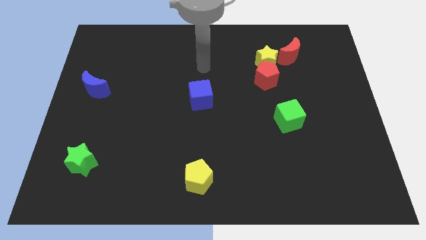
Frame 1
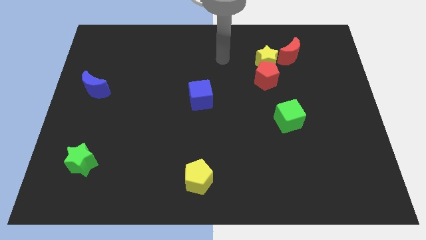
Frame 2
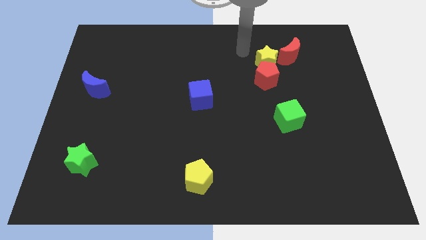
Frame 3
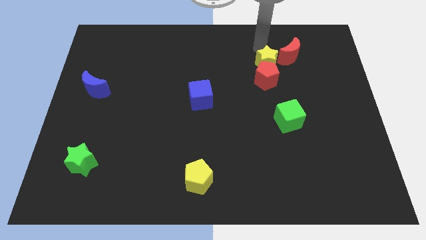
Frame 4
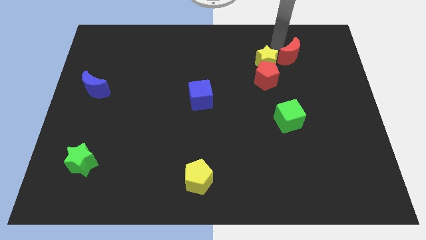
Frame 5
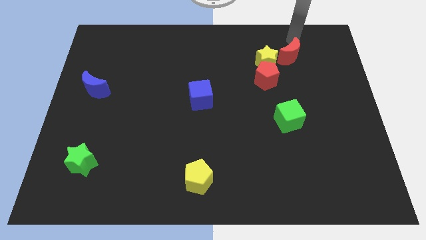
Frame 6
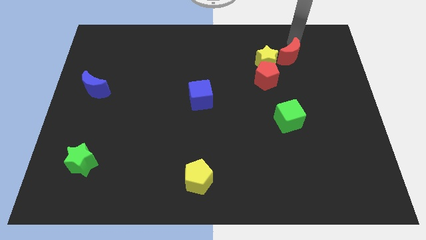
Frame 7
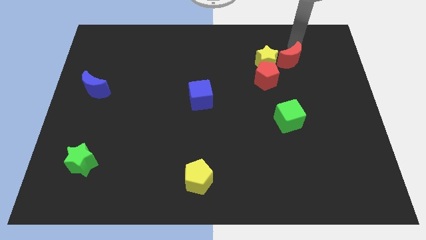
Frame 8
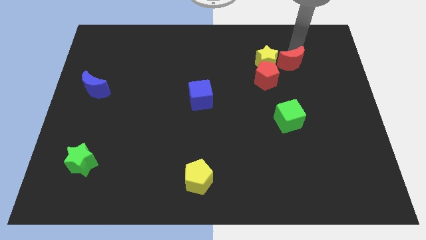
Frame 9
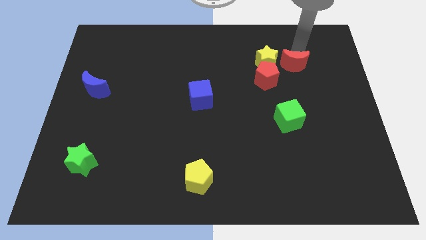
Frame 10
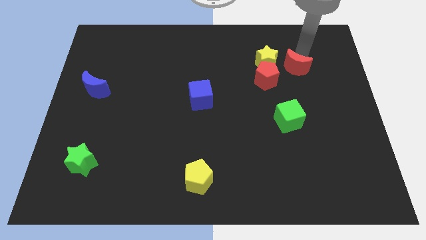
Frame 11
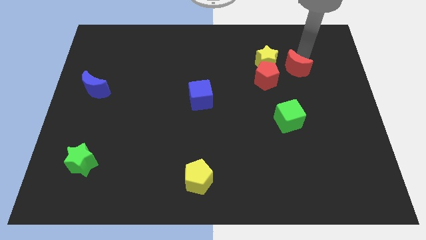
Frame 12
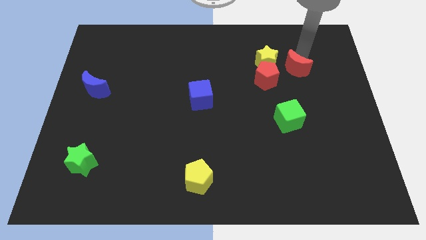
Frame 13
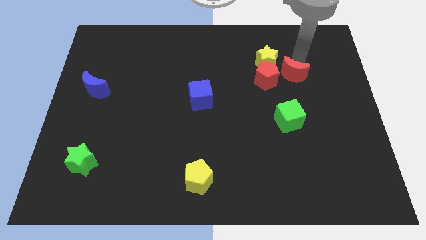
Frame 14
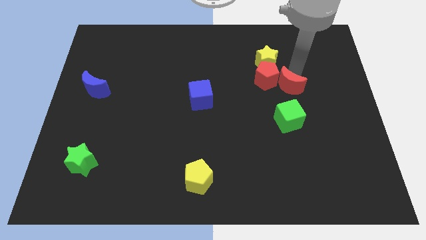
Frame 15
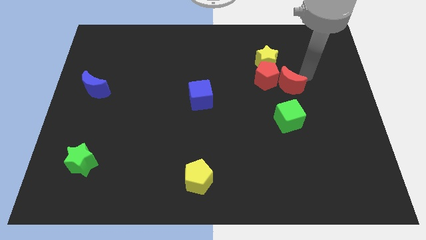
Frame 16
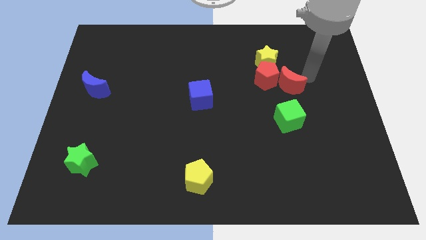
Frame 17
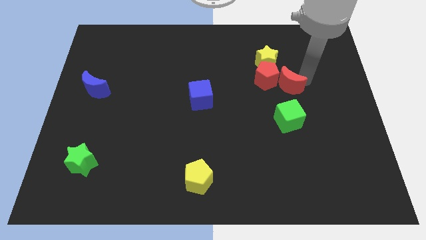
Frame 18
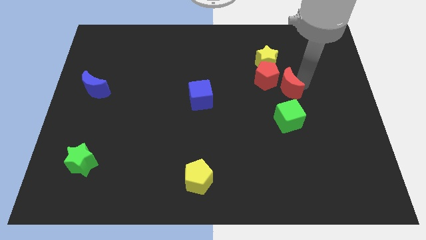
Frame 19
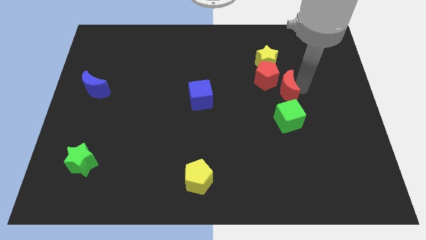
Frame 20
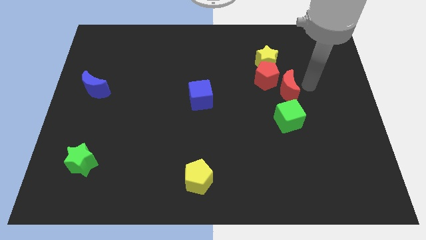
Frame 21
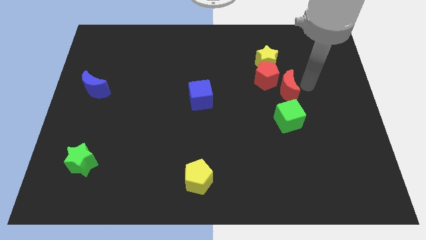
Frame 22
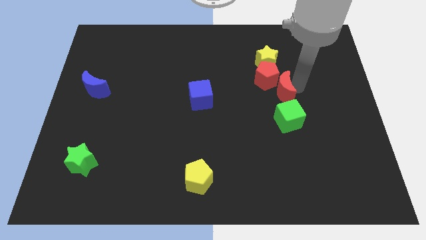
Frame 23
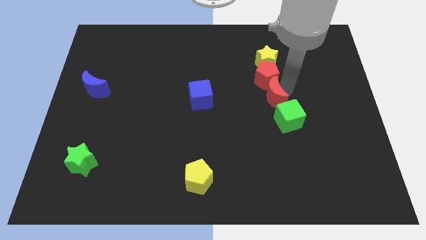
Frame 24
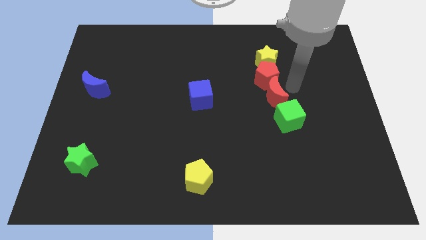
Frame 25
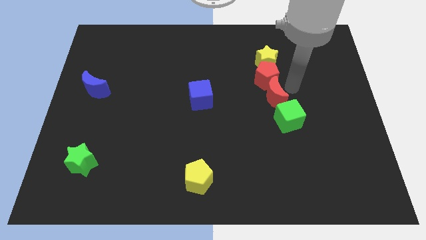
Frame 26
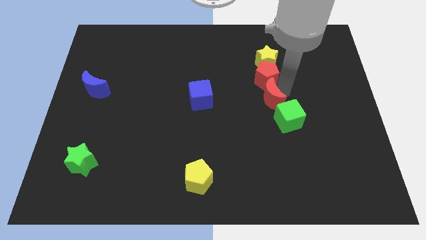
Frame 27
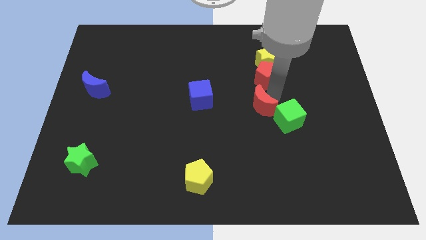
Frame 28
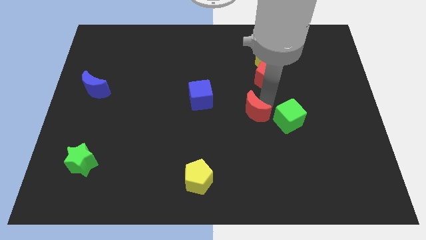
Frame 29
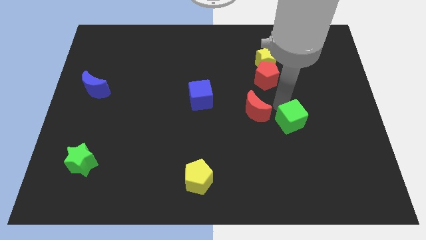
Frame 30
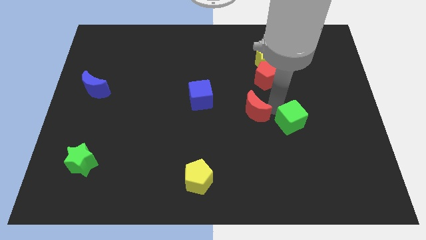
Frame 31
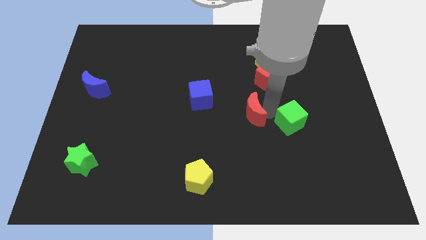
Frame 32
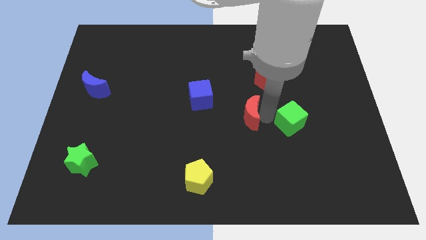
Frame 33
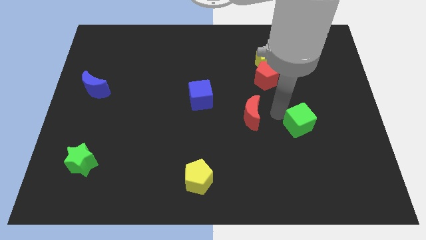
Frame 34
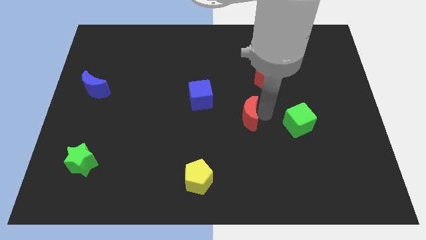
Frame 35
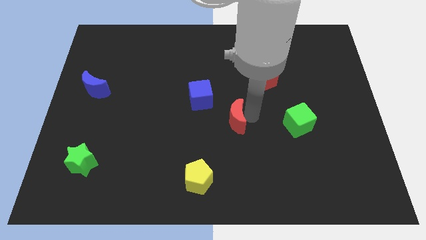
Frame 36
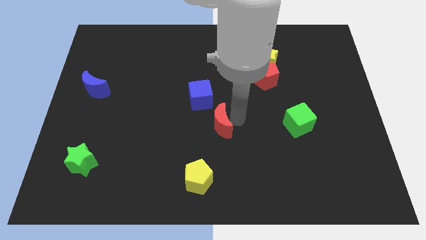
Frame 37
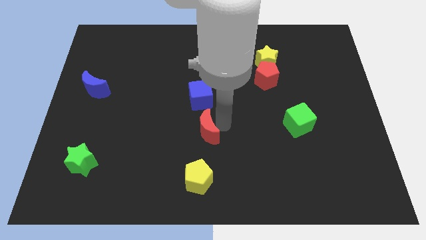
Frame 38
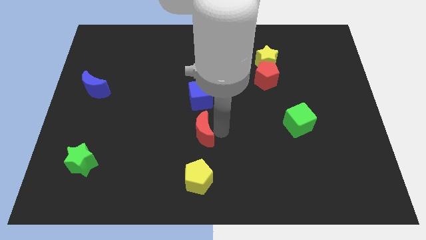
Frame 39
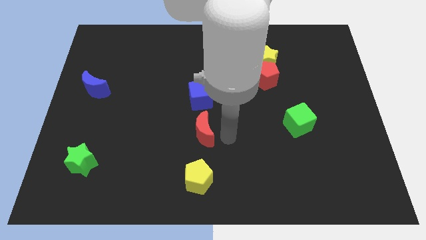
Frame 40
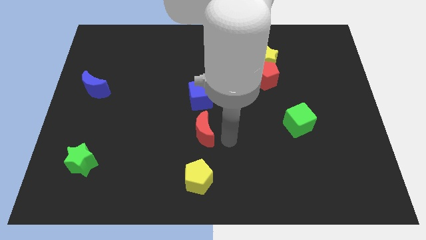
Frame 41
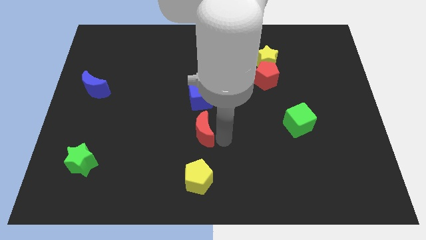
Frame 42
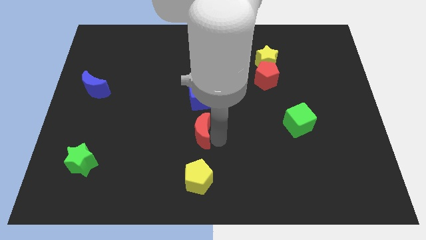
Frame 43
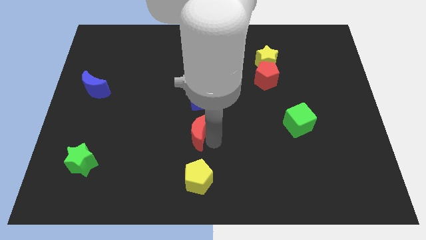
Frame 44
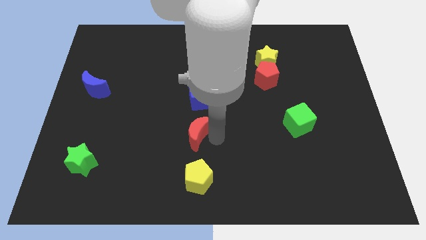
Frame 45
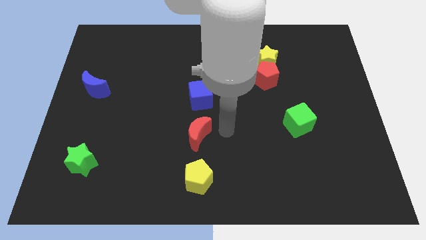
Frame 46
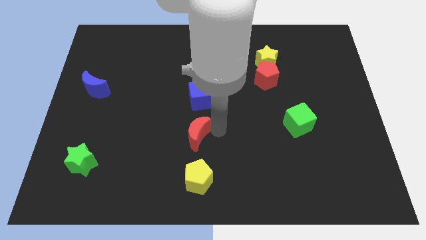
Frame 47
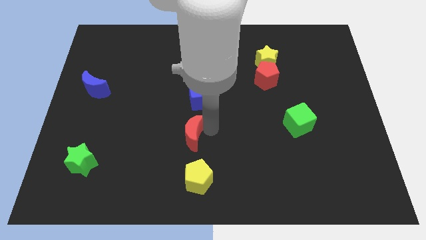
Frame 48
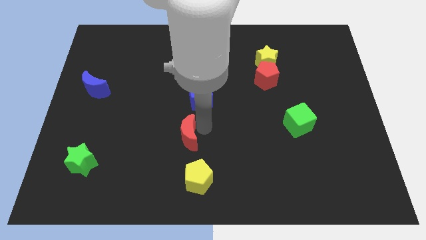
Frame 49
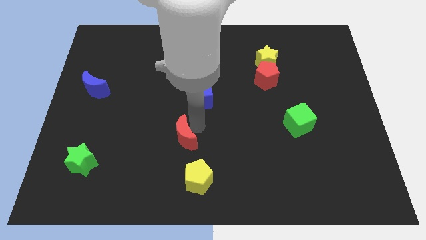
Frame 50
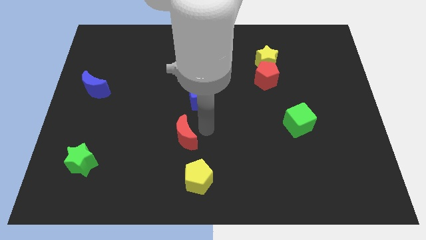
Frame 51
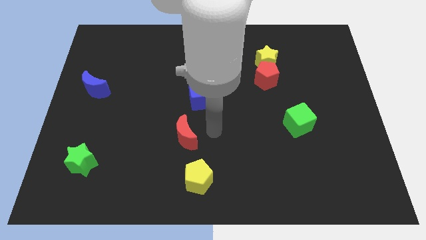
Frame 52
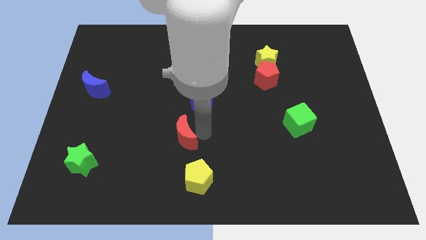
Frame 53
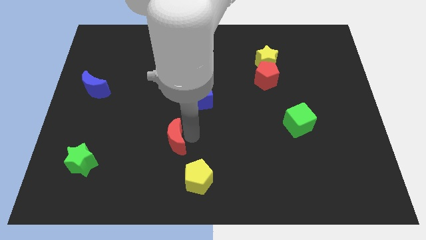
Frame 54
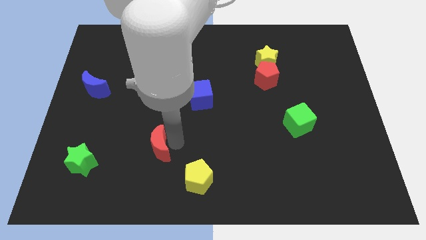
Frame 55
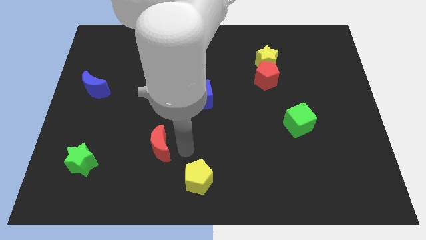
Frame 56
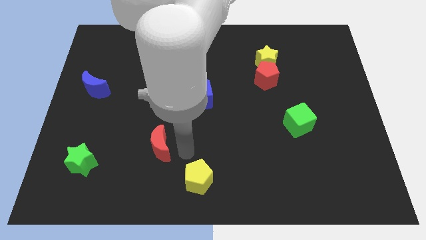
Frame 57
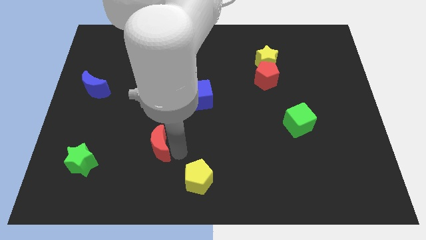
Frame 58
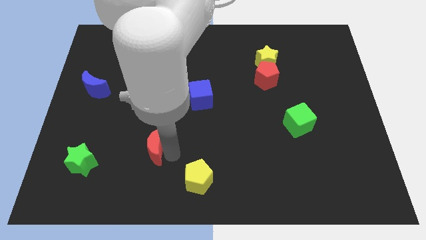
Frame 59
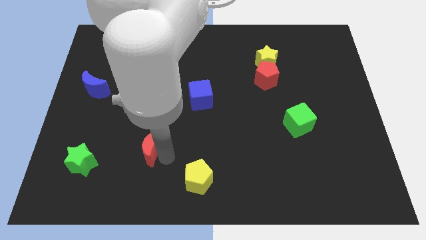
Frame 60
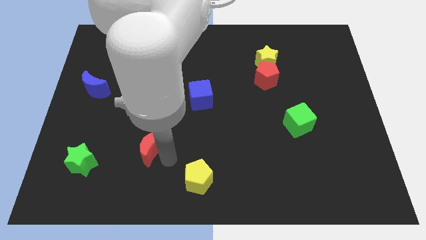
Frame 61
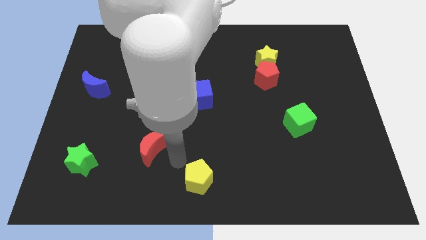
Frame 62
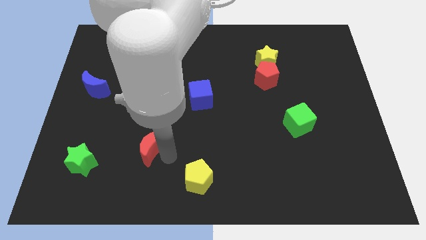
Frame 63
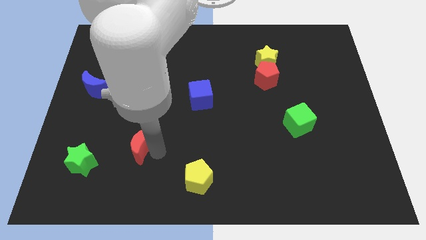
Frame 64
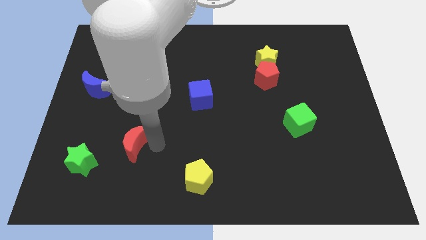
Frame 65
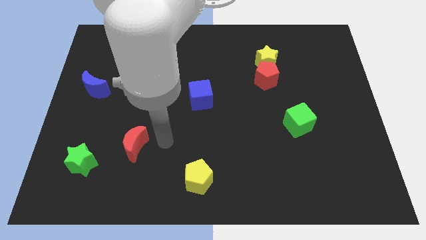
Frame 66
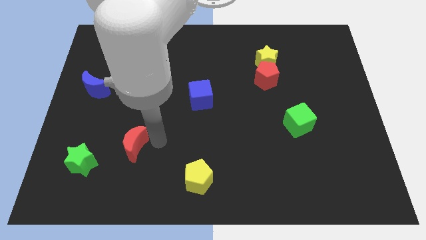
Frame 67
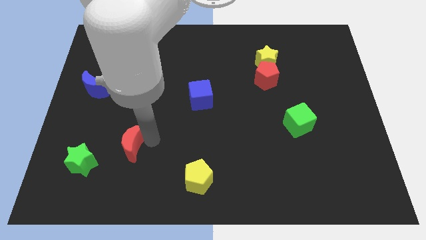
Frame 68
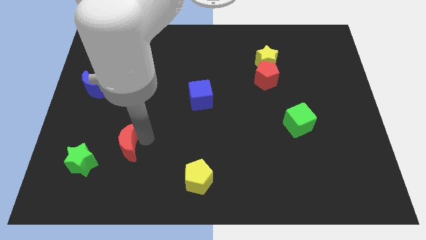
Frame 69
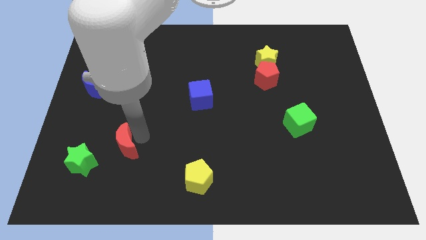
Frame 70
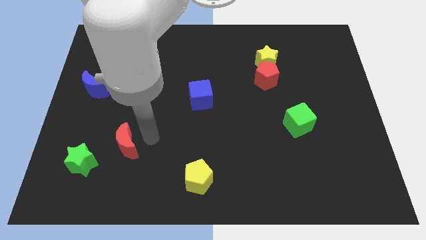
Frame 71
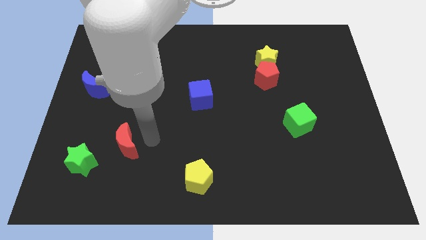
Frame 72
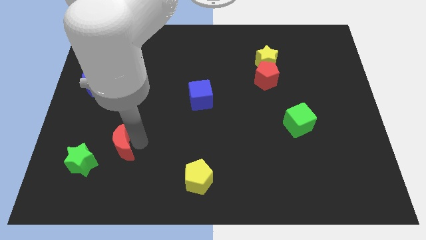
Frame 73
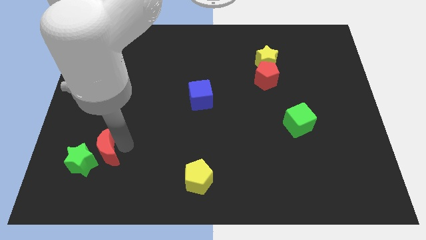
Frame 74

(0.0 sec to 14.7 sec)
slide the red moon to the green star

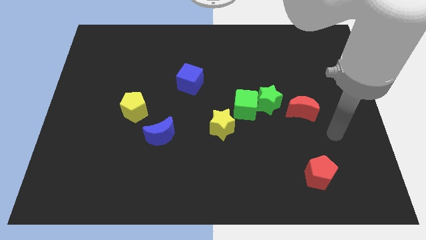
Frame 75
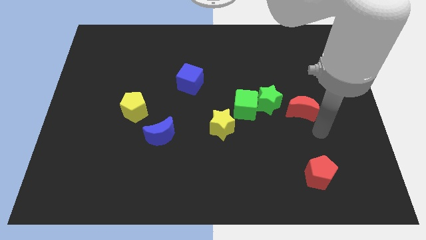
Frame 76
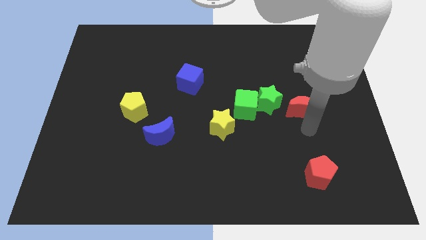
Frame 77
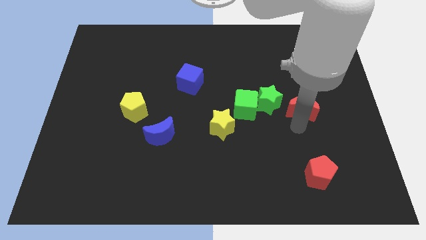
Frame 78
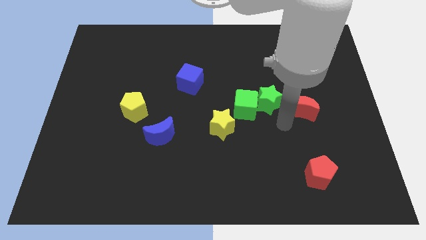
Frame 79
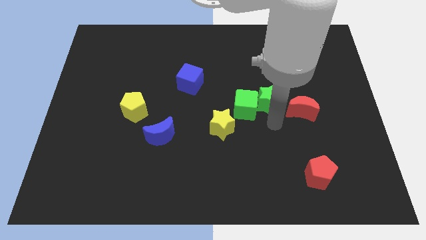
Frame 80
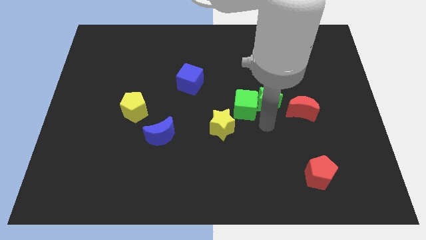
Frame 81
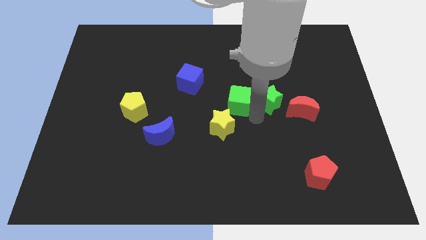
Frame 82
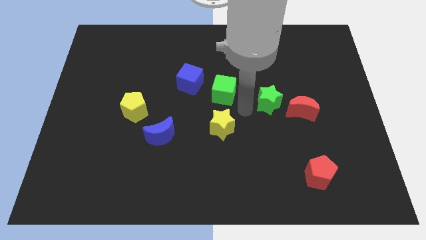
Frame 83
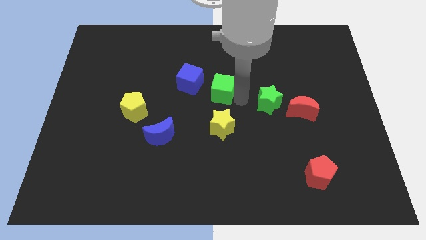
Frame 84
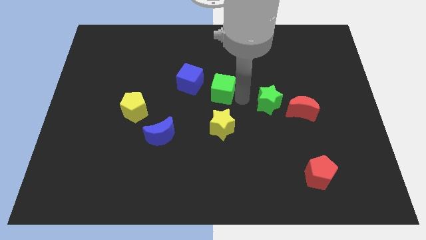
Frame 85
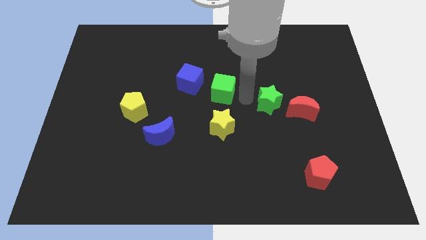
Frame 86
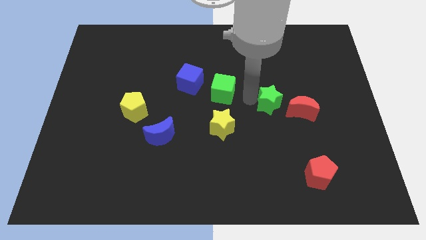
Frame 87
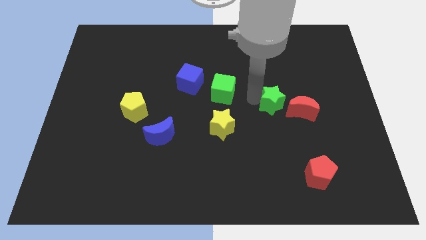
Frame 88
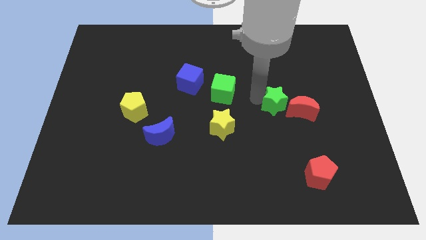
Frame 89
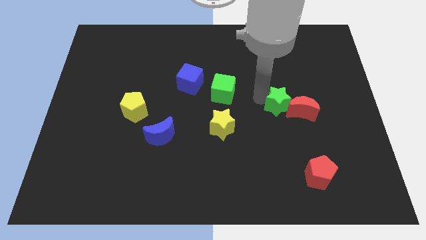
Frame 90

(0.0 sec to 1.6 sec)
move the green star towards the red moon

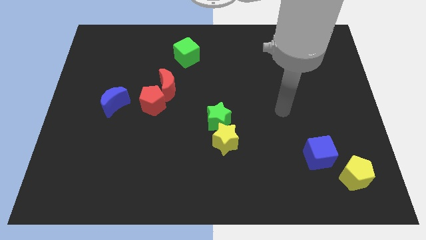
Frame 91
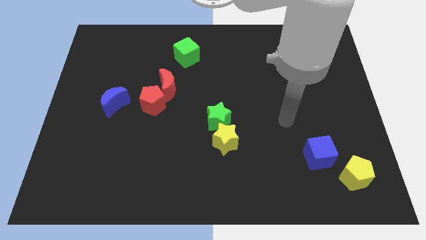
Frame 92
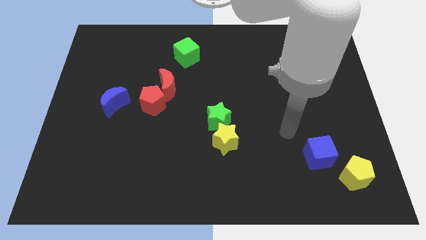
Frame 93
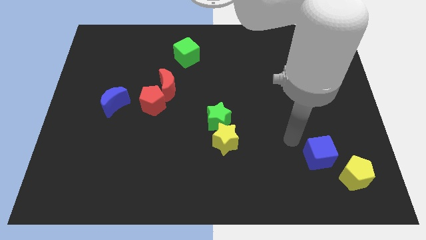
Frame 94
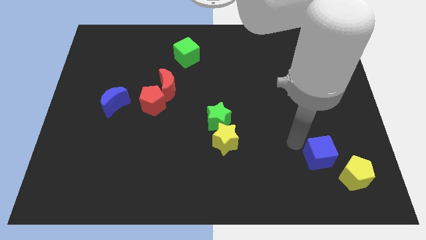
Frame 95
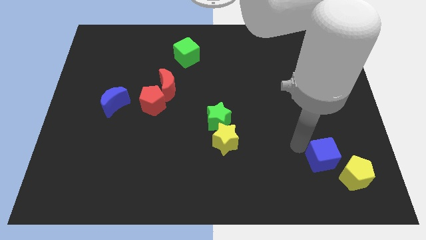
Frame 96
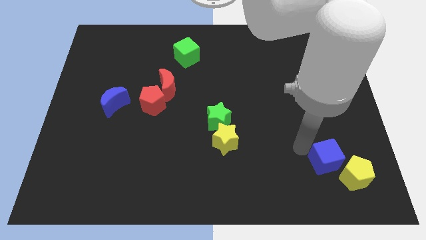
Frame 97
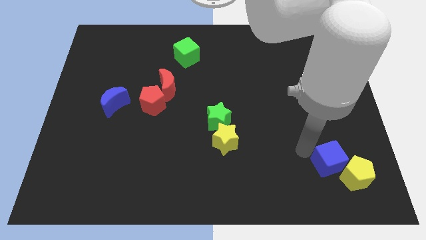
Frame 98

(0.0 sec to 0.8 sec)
move the blue cube towards the yellow pentagon
